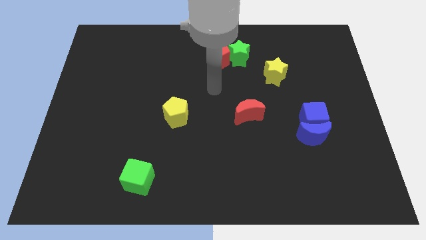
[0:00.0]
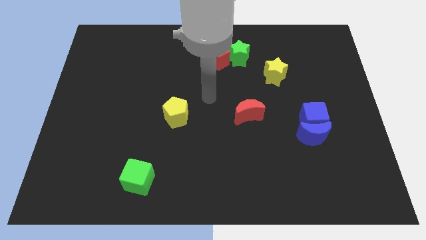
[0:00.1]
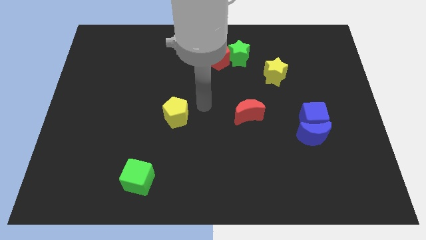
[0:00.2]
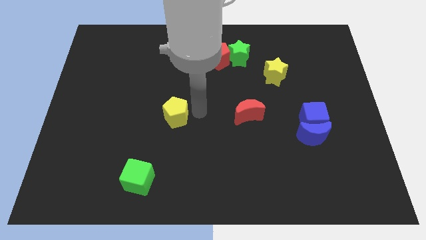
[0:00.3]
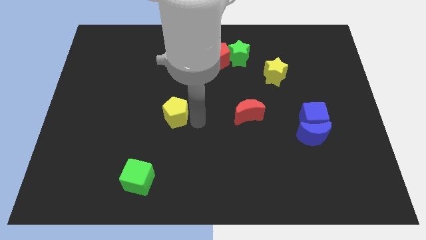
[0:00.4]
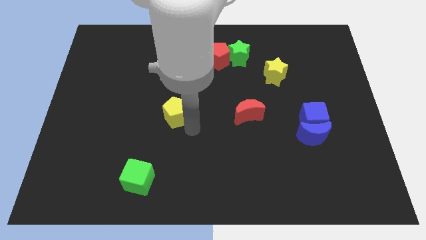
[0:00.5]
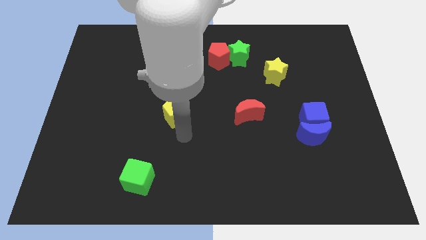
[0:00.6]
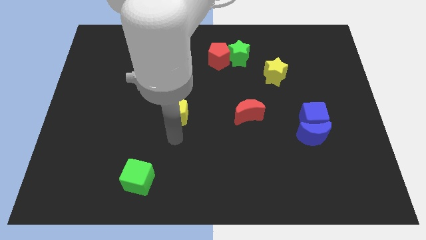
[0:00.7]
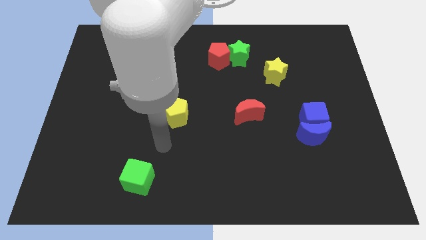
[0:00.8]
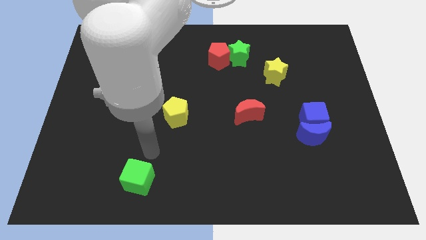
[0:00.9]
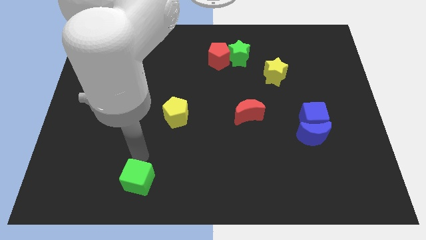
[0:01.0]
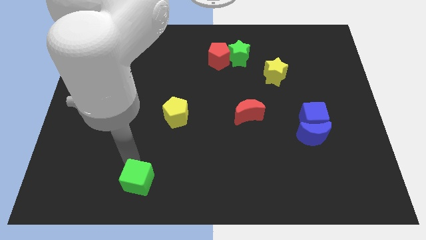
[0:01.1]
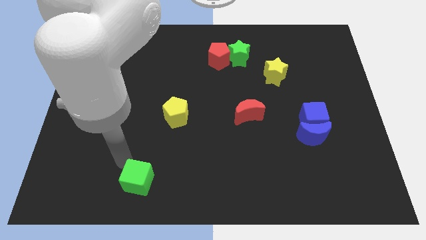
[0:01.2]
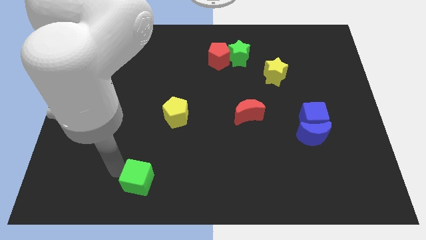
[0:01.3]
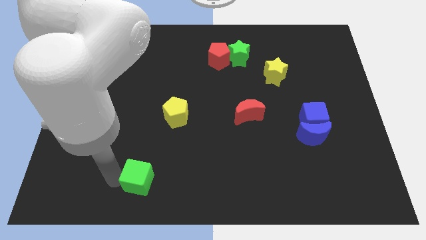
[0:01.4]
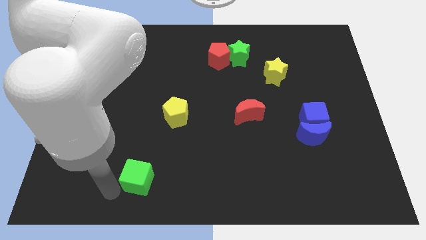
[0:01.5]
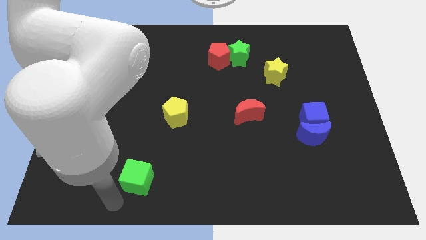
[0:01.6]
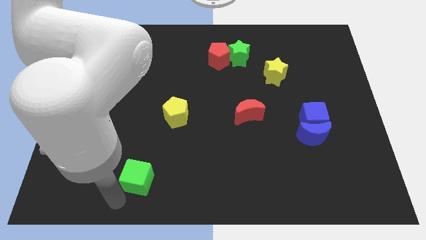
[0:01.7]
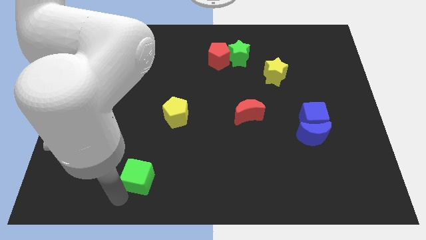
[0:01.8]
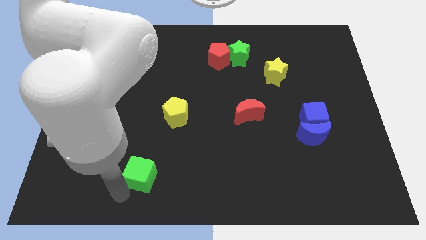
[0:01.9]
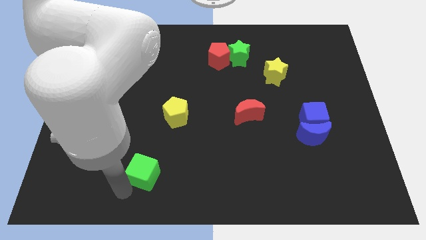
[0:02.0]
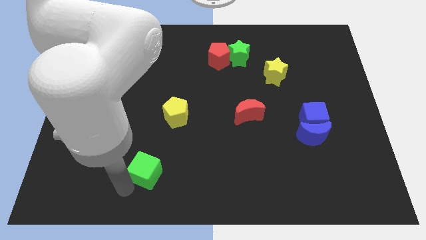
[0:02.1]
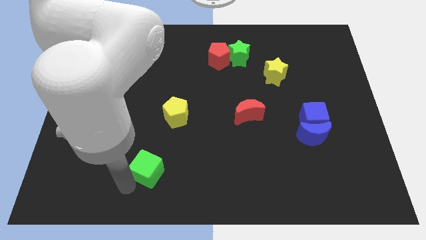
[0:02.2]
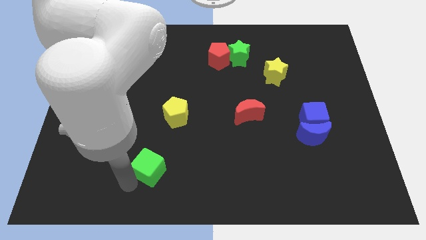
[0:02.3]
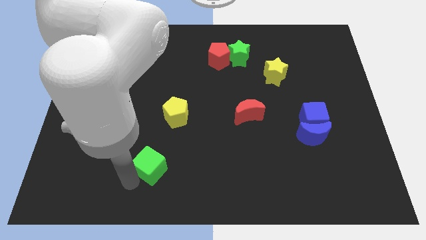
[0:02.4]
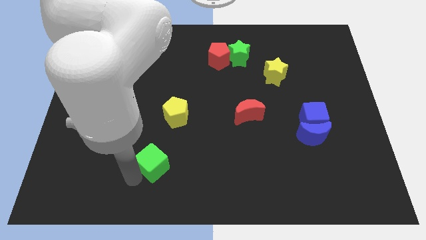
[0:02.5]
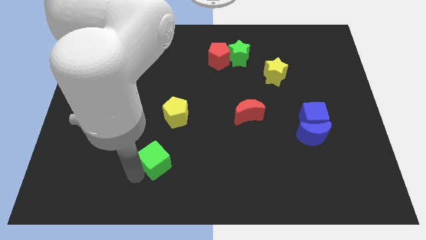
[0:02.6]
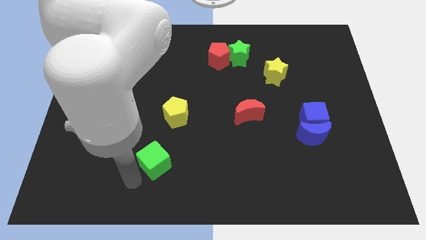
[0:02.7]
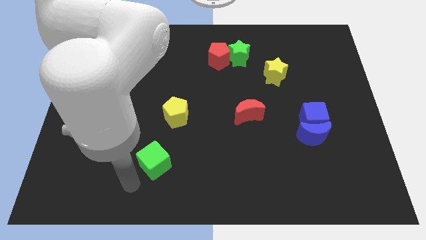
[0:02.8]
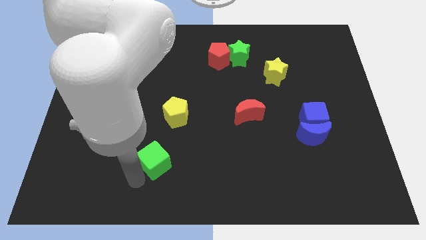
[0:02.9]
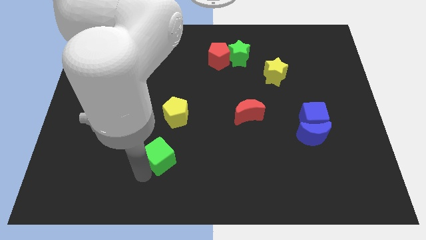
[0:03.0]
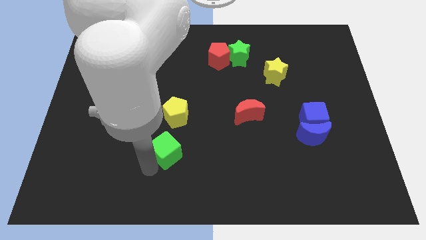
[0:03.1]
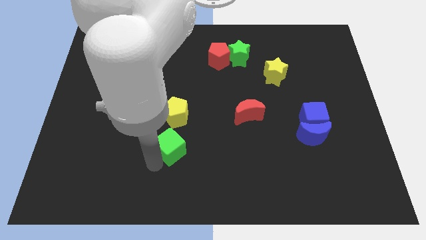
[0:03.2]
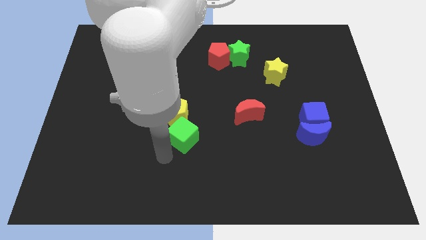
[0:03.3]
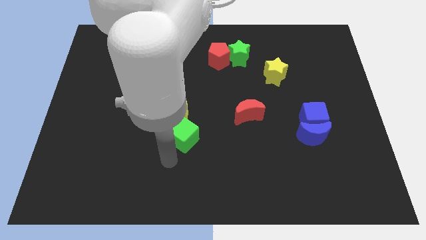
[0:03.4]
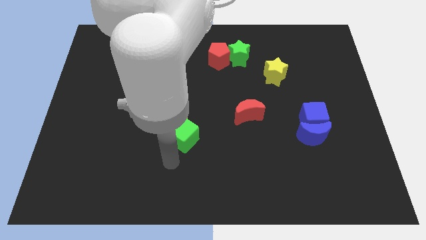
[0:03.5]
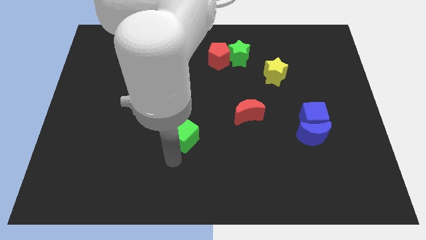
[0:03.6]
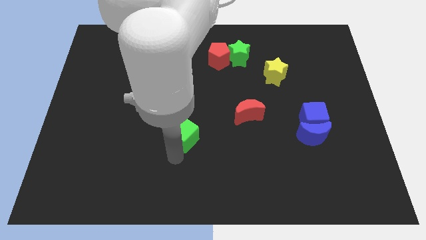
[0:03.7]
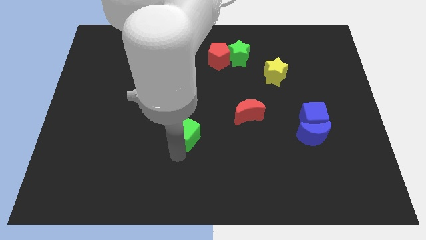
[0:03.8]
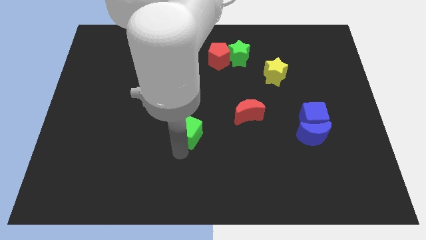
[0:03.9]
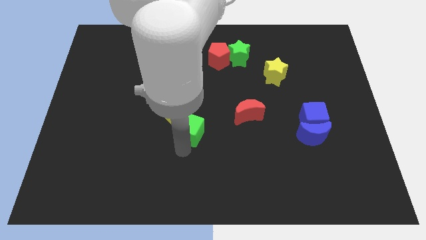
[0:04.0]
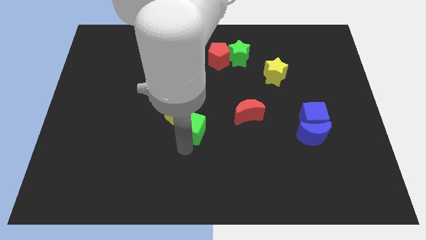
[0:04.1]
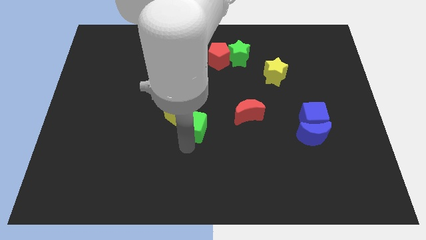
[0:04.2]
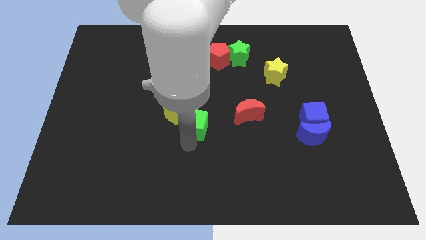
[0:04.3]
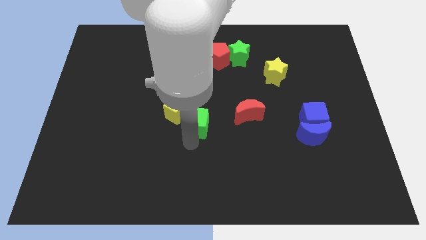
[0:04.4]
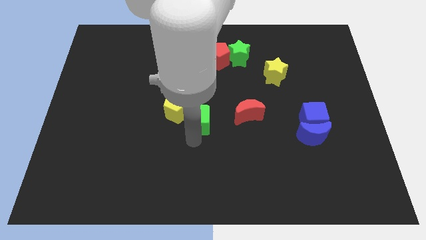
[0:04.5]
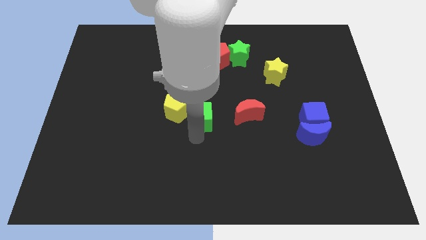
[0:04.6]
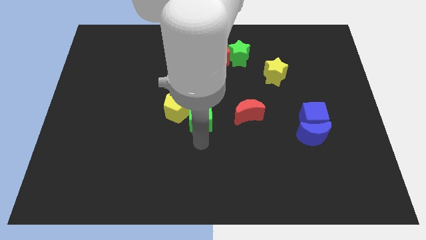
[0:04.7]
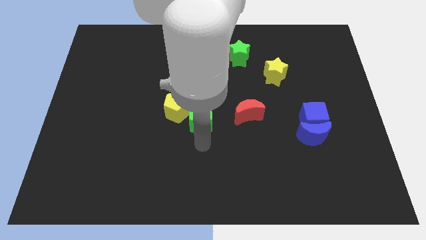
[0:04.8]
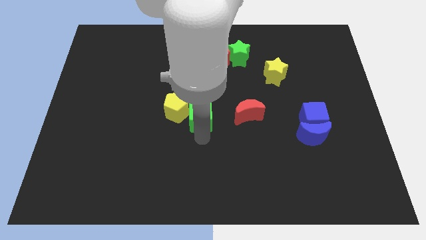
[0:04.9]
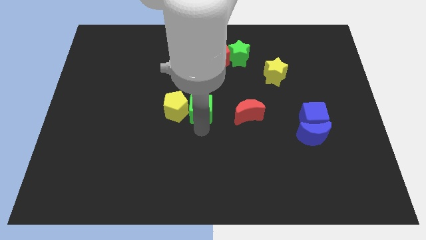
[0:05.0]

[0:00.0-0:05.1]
push the green cube to the top right of the yellow pentagon

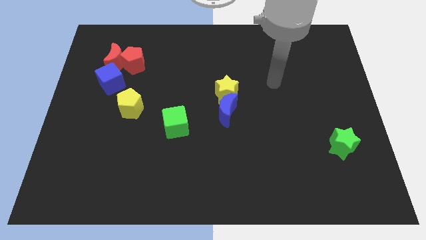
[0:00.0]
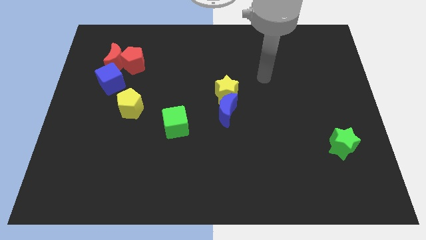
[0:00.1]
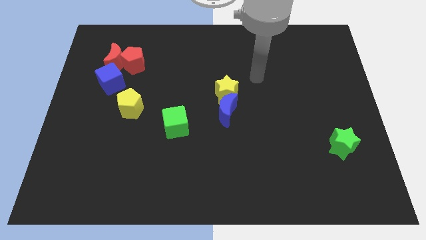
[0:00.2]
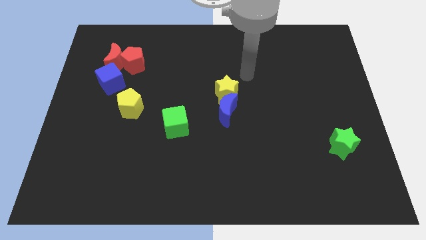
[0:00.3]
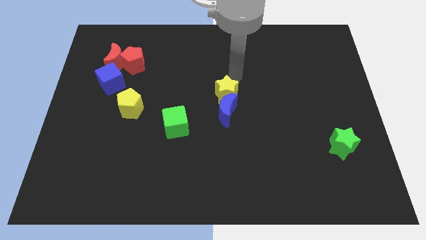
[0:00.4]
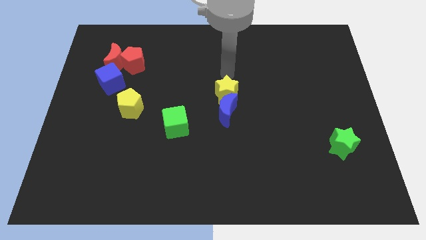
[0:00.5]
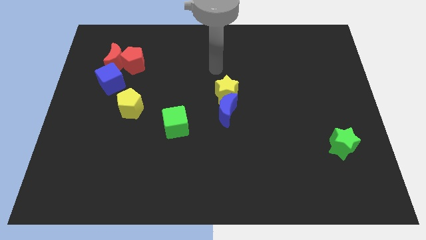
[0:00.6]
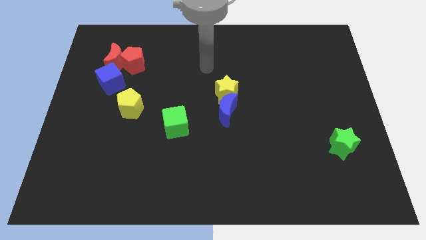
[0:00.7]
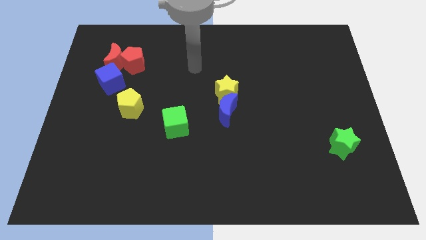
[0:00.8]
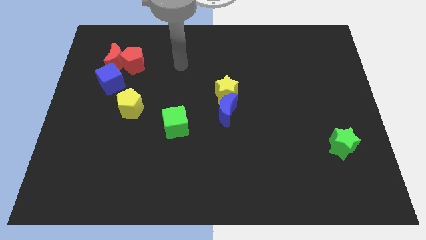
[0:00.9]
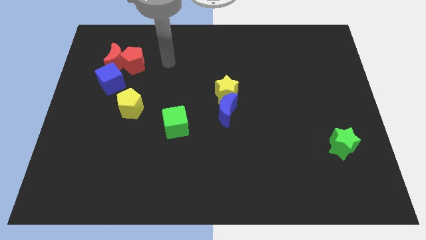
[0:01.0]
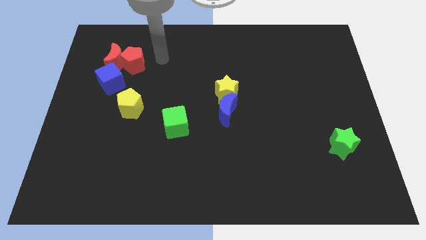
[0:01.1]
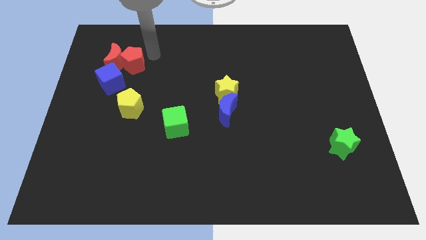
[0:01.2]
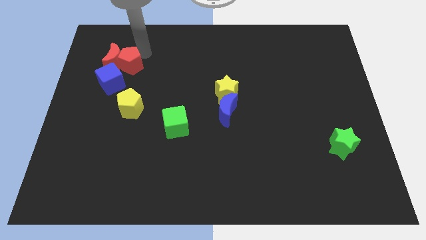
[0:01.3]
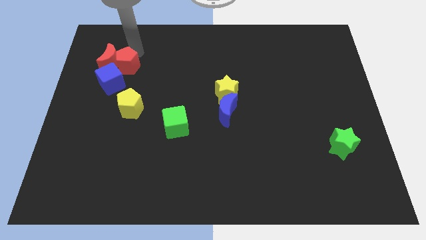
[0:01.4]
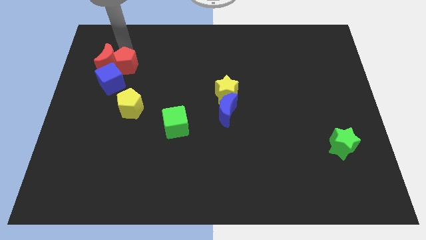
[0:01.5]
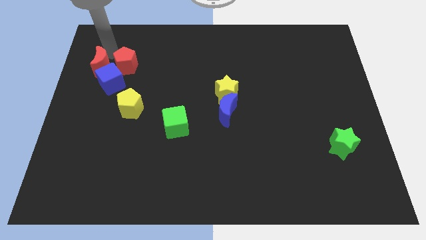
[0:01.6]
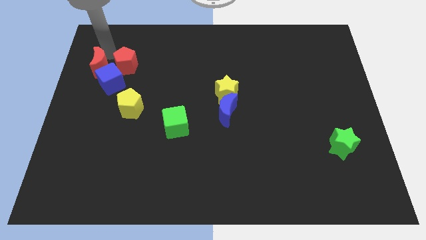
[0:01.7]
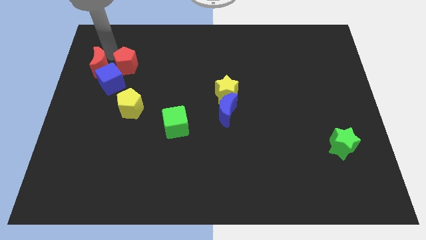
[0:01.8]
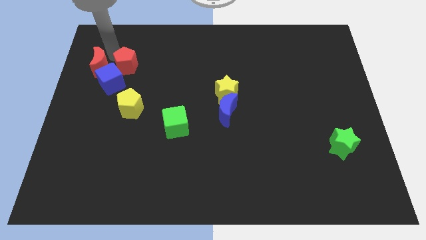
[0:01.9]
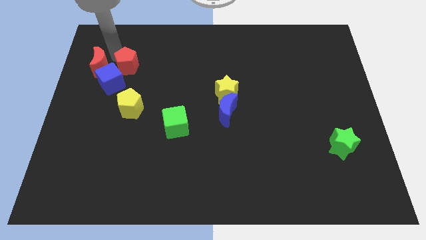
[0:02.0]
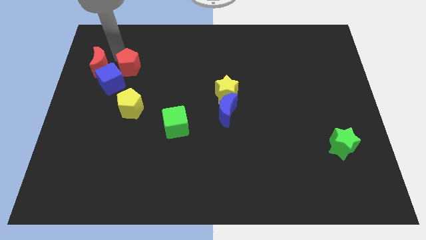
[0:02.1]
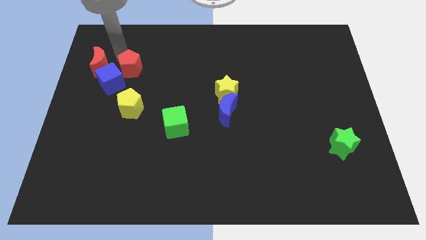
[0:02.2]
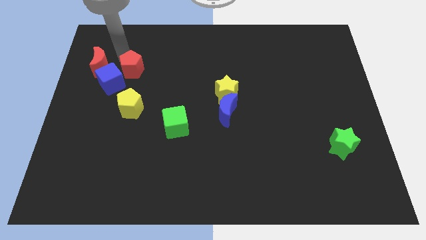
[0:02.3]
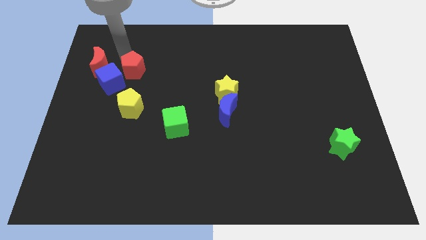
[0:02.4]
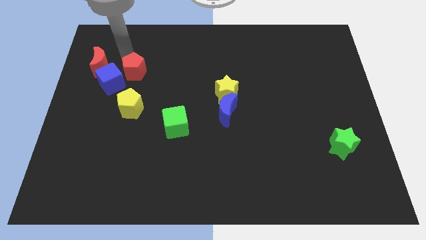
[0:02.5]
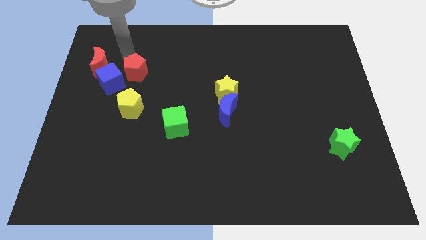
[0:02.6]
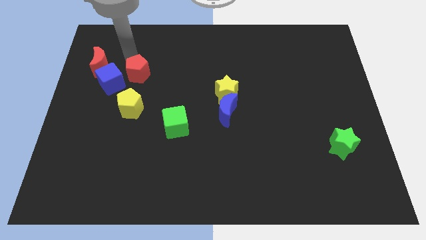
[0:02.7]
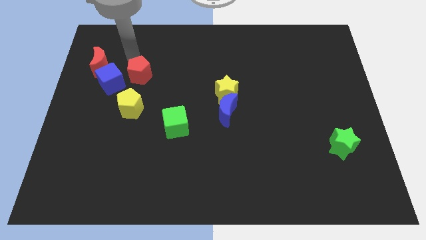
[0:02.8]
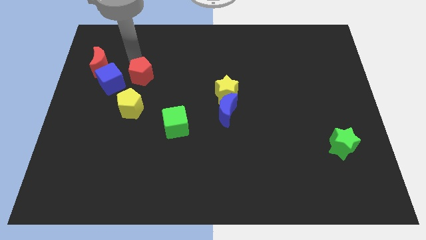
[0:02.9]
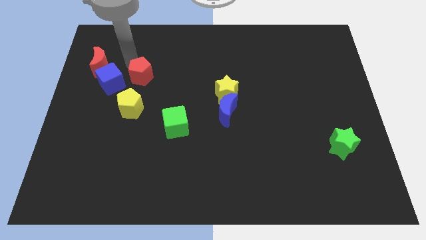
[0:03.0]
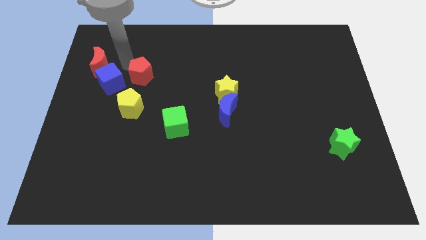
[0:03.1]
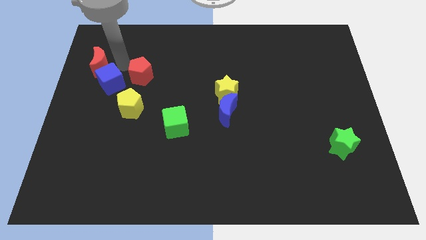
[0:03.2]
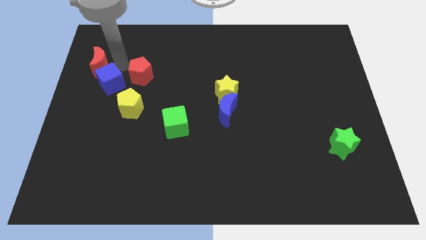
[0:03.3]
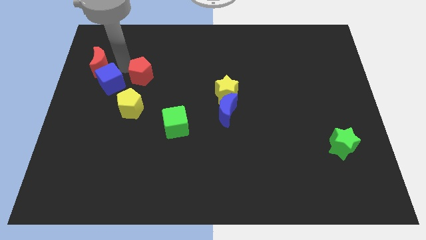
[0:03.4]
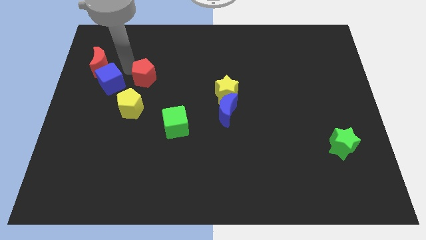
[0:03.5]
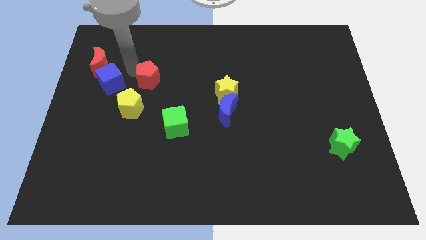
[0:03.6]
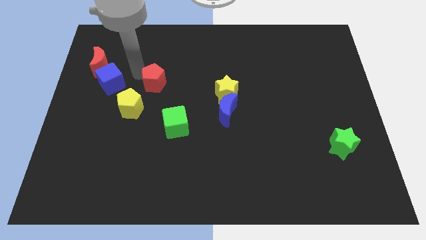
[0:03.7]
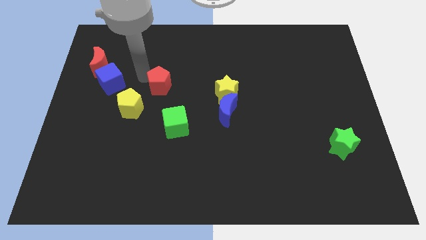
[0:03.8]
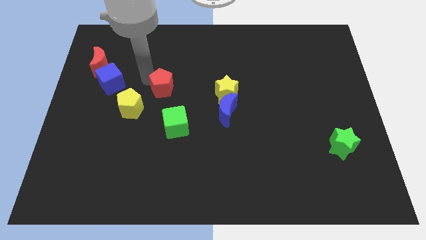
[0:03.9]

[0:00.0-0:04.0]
put the red pentagon to the left of the yellow star
